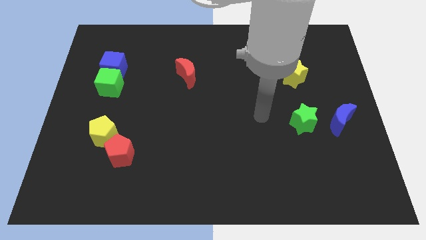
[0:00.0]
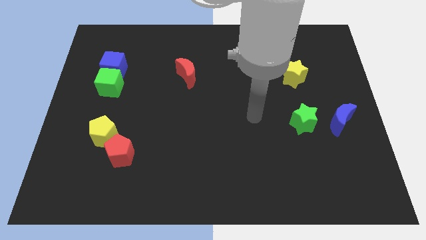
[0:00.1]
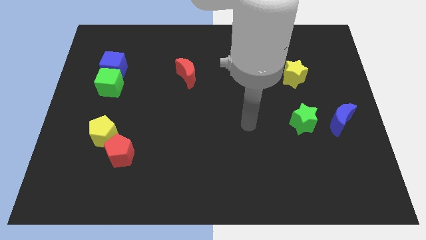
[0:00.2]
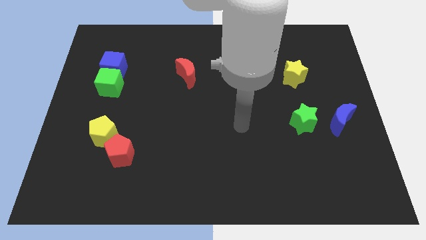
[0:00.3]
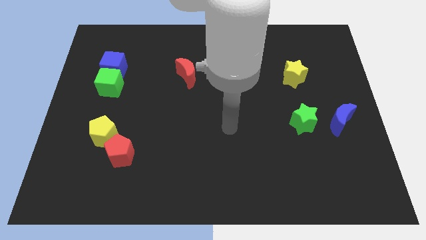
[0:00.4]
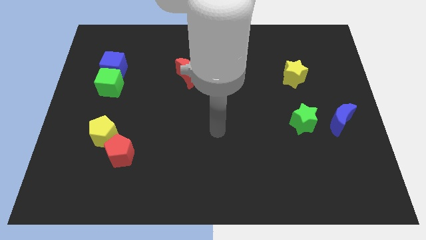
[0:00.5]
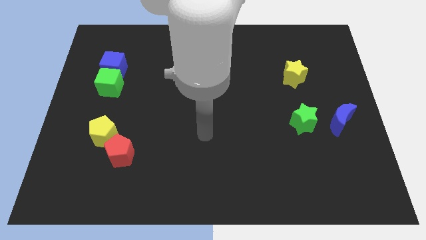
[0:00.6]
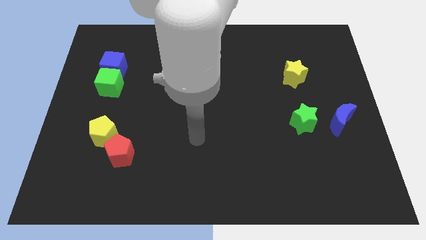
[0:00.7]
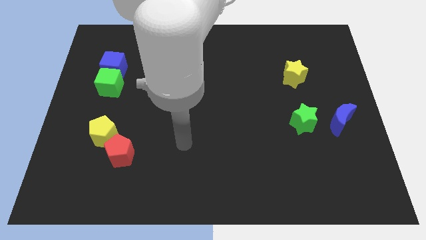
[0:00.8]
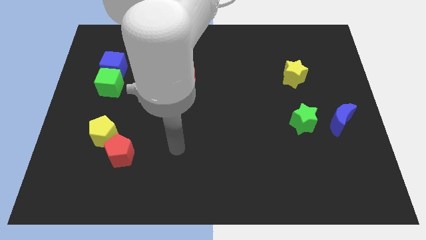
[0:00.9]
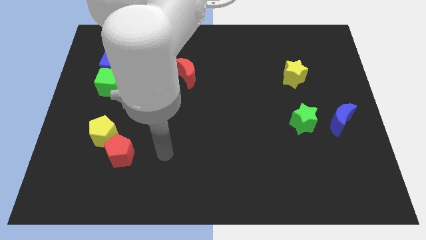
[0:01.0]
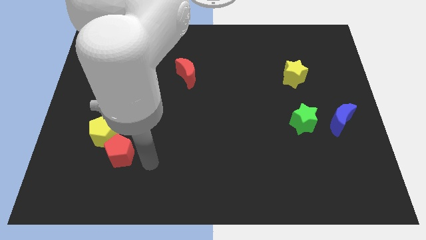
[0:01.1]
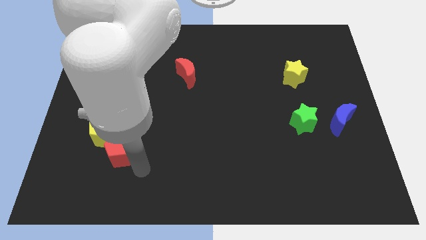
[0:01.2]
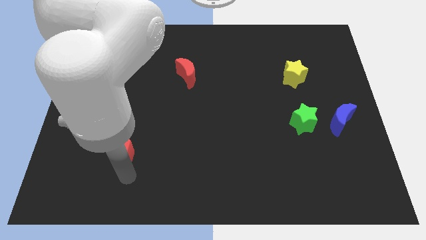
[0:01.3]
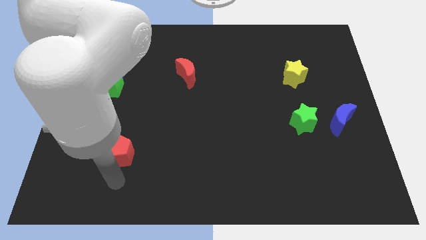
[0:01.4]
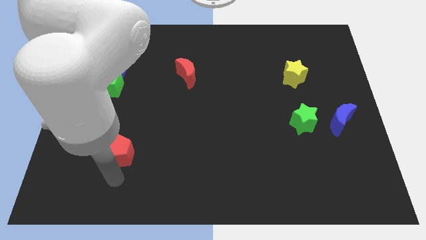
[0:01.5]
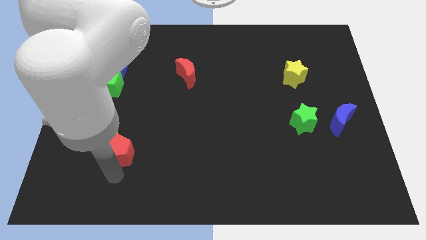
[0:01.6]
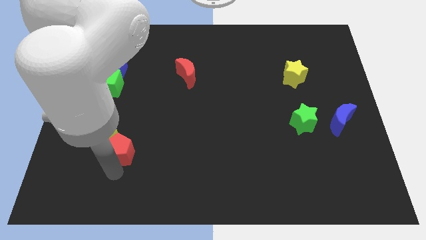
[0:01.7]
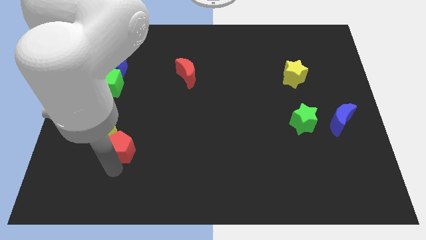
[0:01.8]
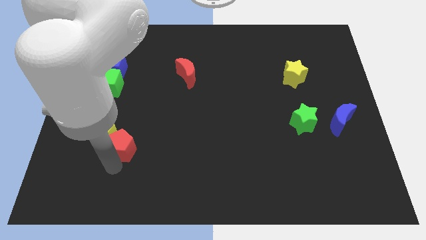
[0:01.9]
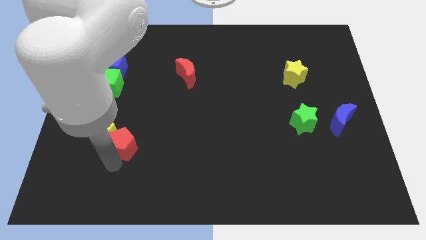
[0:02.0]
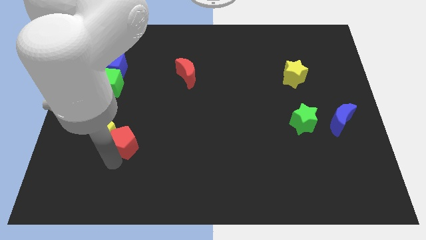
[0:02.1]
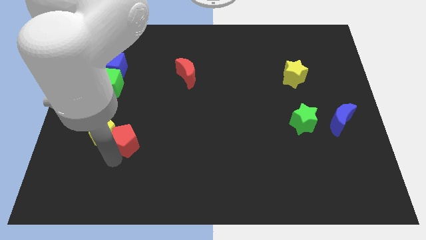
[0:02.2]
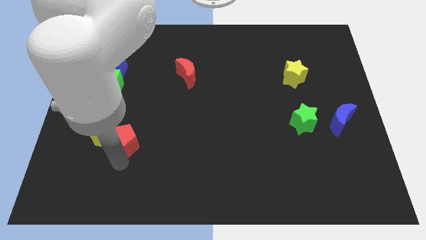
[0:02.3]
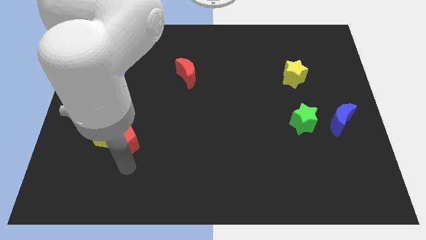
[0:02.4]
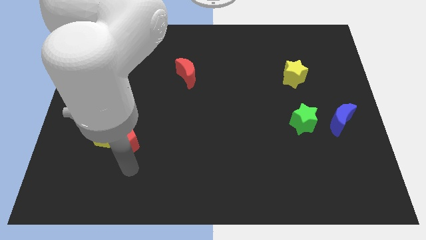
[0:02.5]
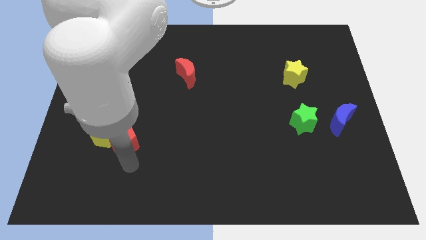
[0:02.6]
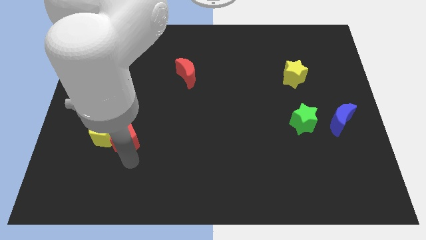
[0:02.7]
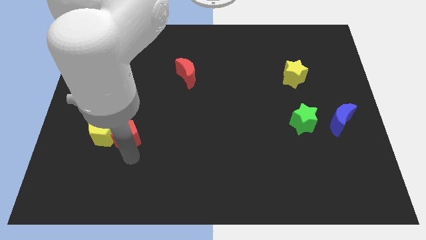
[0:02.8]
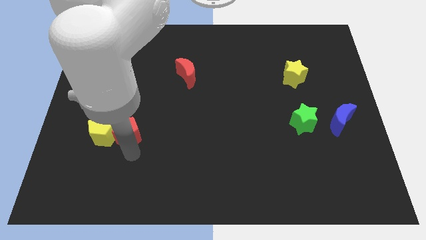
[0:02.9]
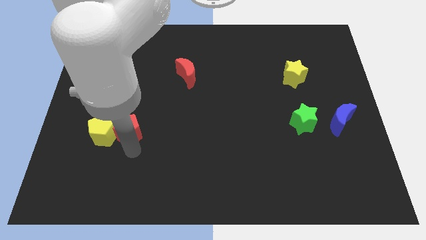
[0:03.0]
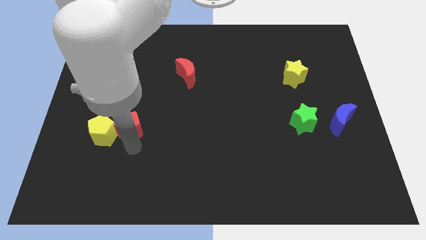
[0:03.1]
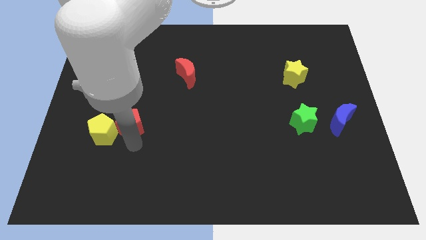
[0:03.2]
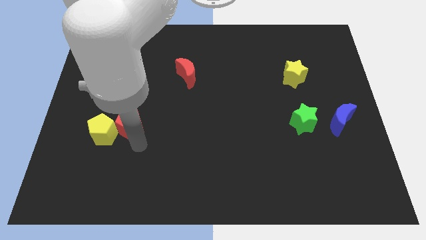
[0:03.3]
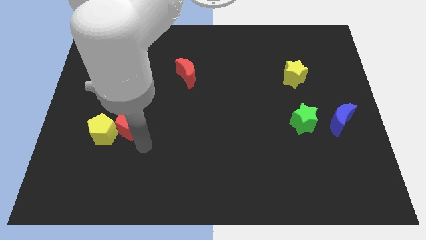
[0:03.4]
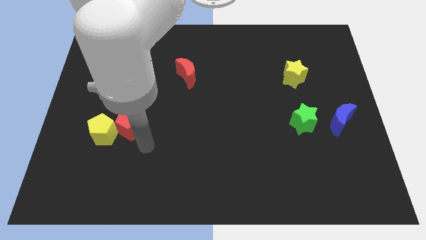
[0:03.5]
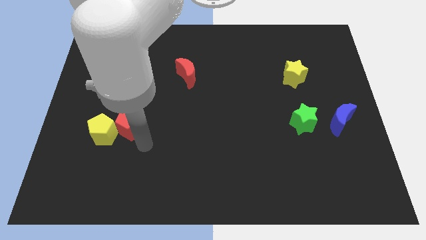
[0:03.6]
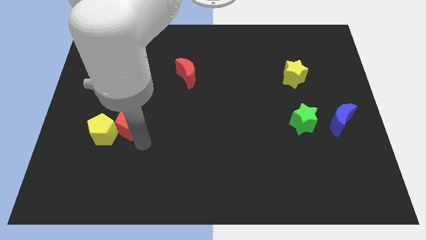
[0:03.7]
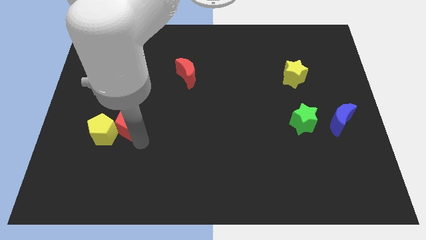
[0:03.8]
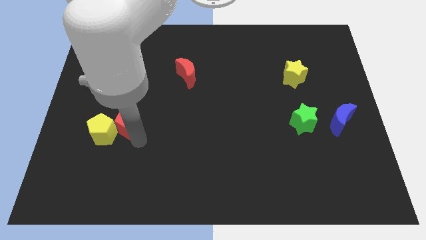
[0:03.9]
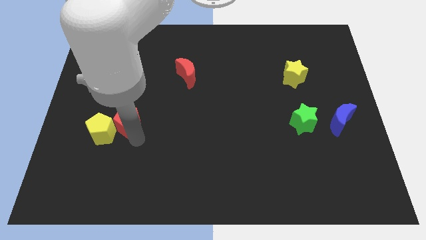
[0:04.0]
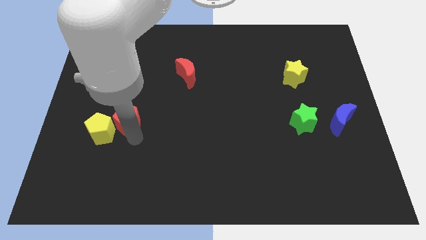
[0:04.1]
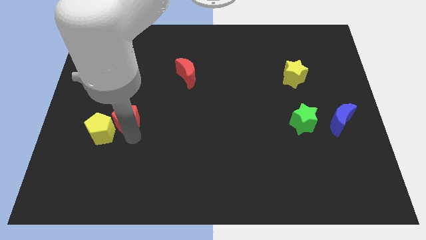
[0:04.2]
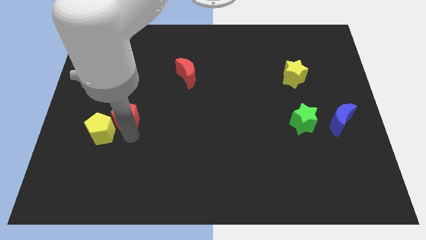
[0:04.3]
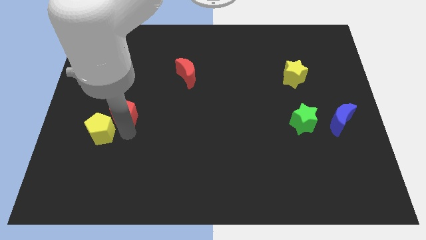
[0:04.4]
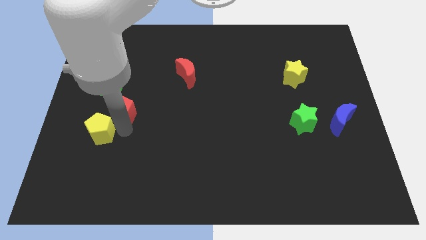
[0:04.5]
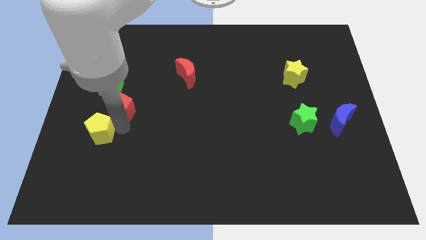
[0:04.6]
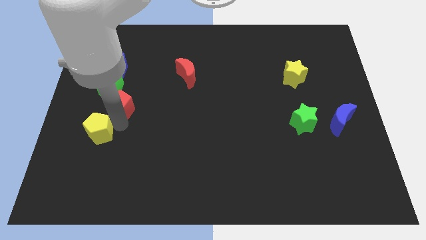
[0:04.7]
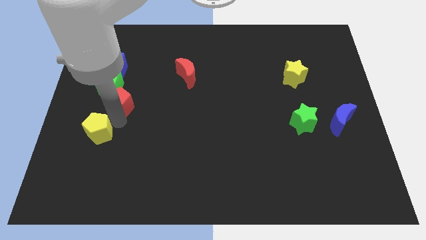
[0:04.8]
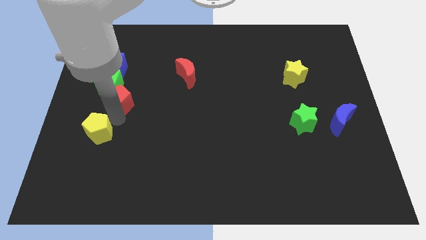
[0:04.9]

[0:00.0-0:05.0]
push the red pentagon to the green cube

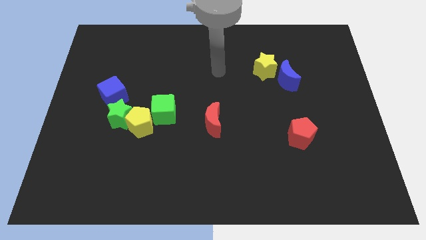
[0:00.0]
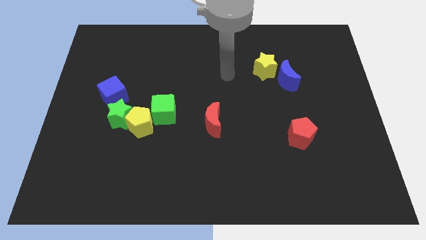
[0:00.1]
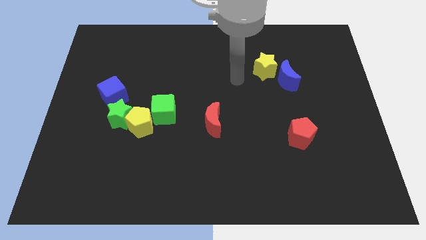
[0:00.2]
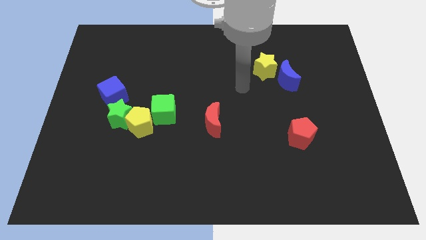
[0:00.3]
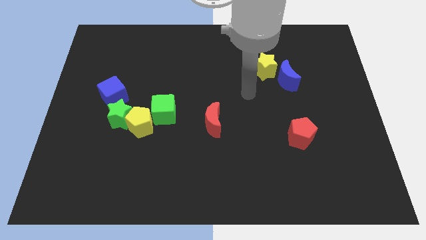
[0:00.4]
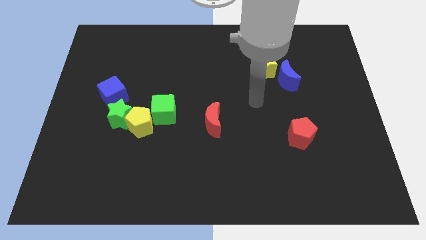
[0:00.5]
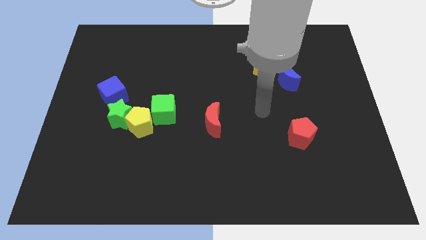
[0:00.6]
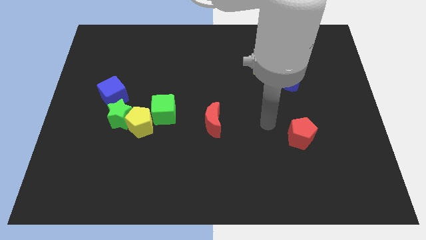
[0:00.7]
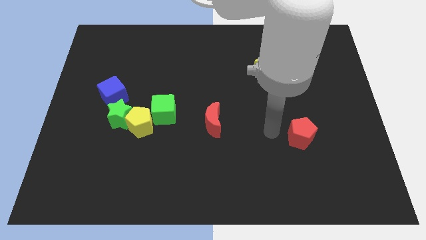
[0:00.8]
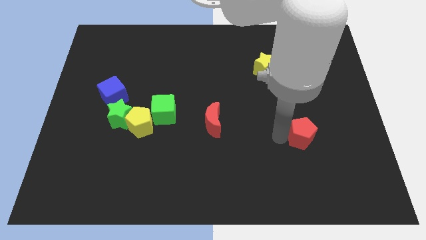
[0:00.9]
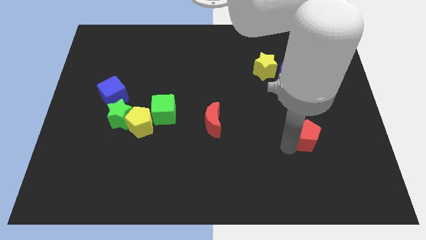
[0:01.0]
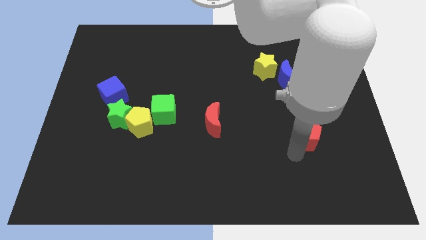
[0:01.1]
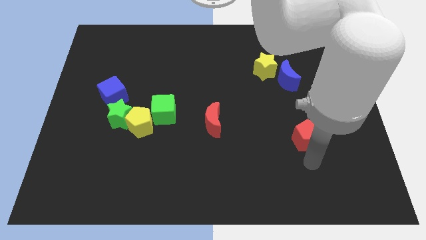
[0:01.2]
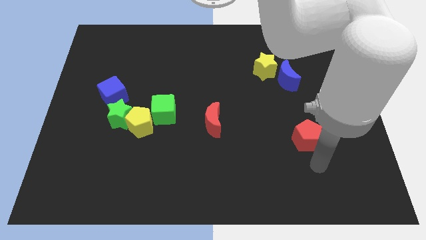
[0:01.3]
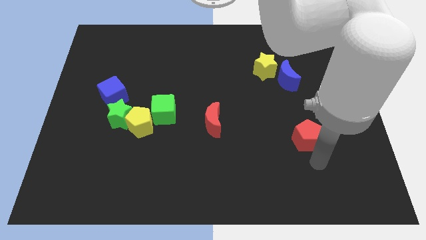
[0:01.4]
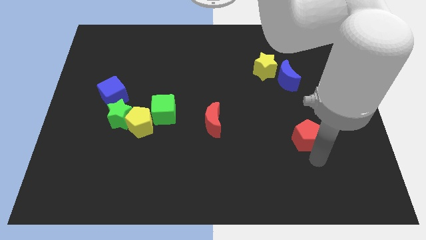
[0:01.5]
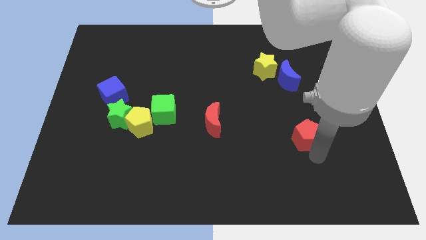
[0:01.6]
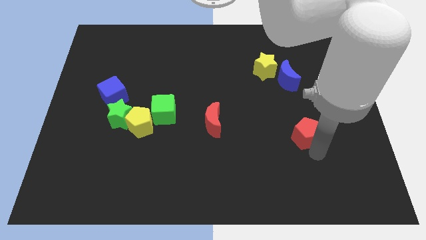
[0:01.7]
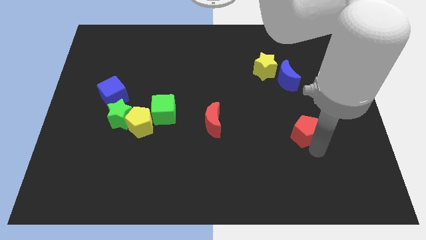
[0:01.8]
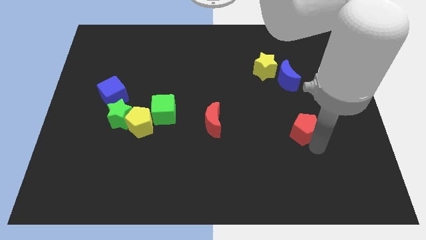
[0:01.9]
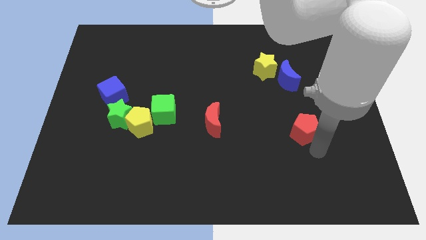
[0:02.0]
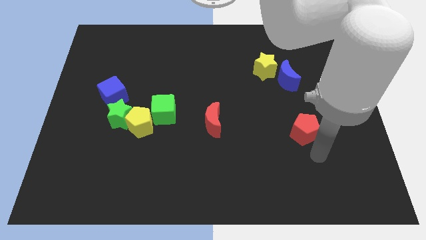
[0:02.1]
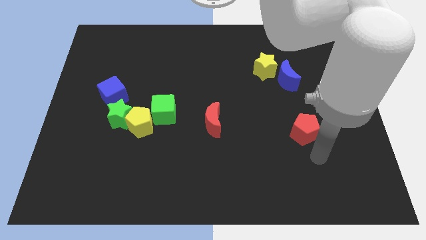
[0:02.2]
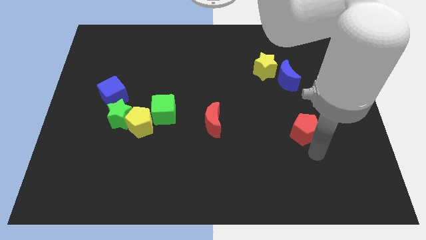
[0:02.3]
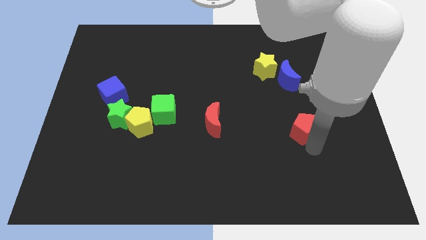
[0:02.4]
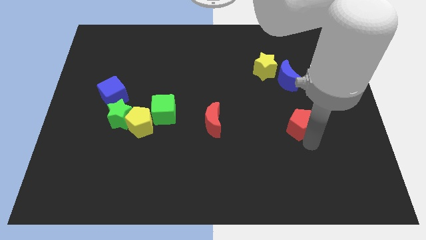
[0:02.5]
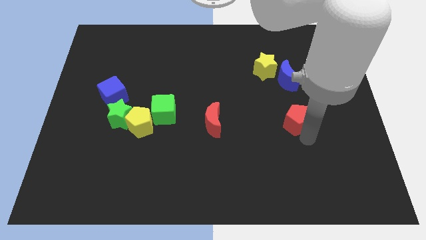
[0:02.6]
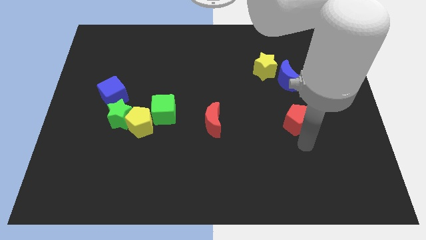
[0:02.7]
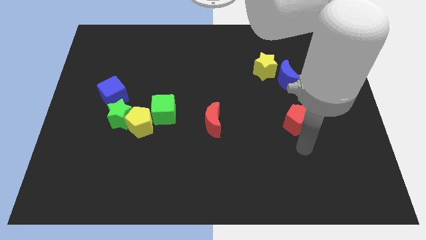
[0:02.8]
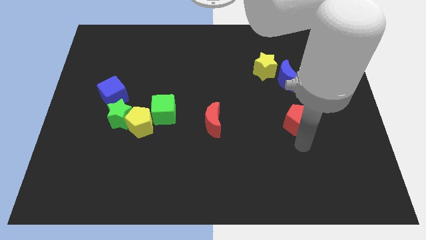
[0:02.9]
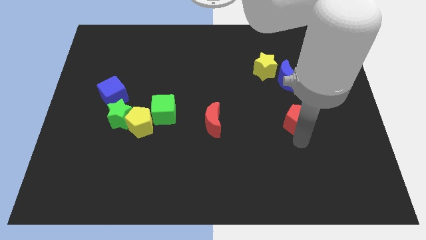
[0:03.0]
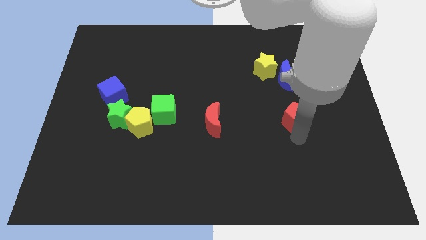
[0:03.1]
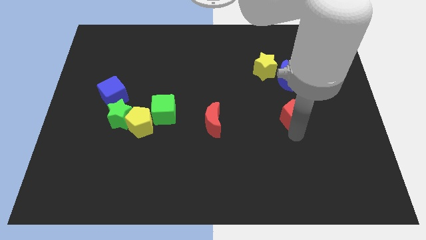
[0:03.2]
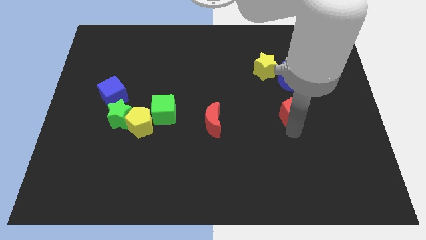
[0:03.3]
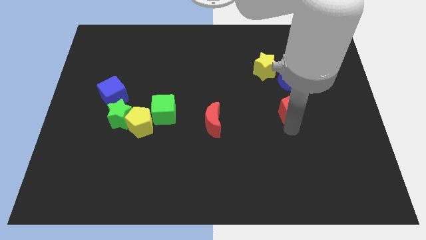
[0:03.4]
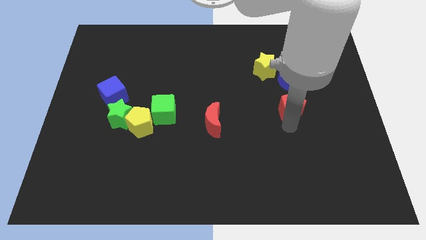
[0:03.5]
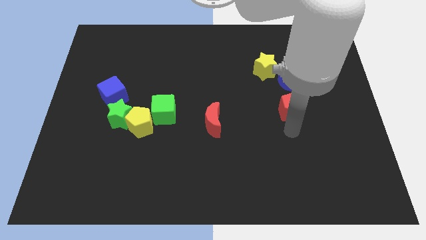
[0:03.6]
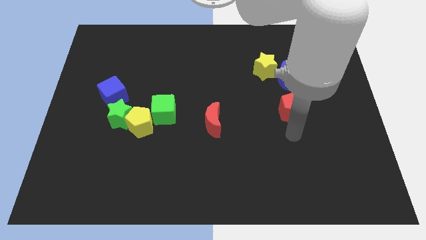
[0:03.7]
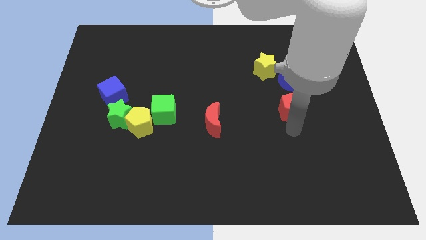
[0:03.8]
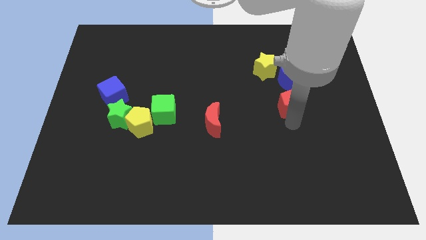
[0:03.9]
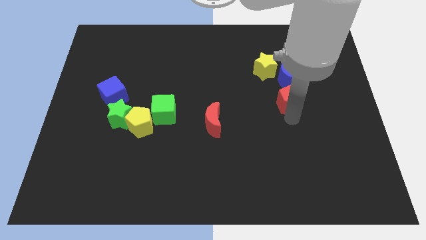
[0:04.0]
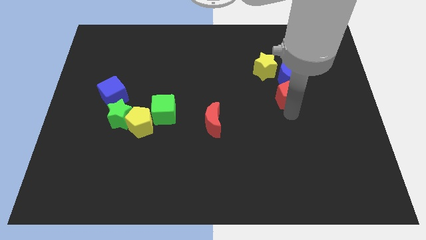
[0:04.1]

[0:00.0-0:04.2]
put the red pentagon next to the blue moon
